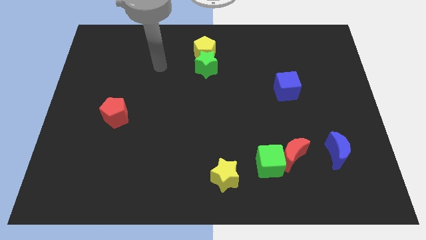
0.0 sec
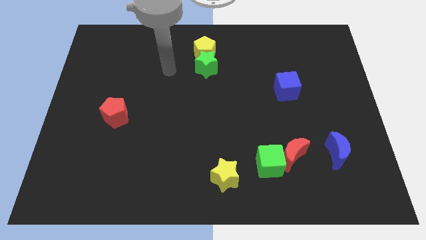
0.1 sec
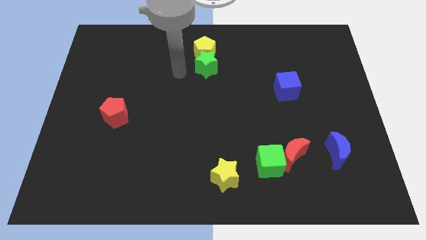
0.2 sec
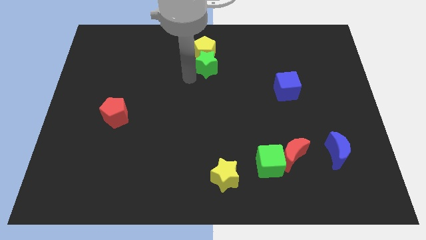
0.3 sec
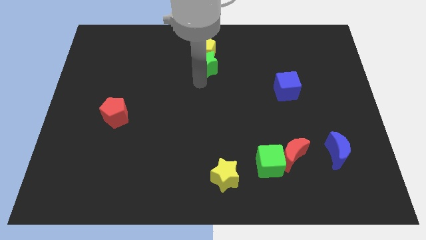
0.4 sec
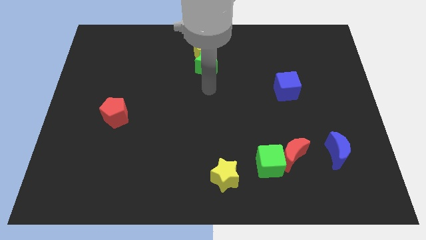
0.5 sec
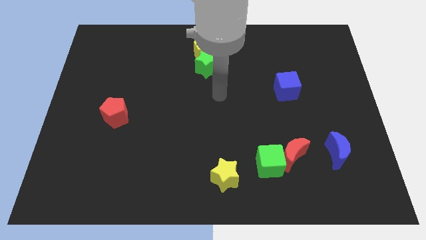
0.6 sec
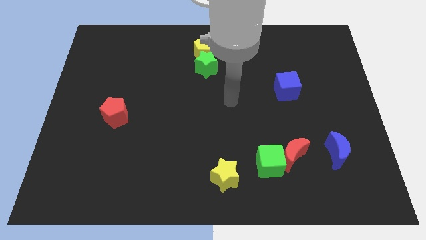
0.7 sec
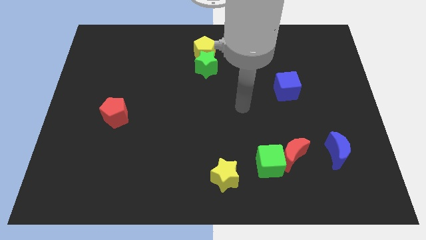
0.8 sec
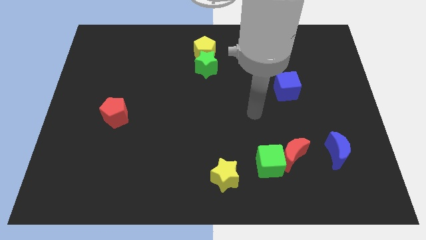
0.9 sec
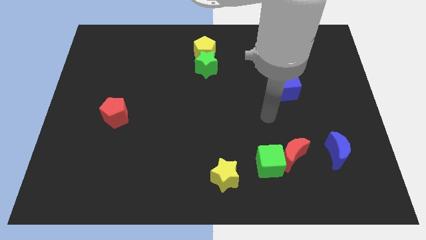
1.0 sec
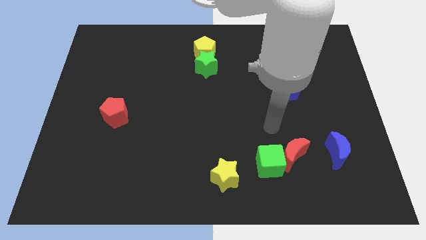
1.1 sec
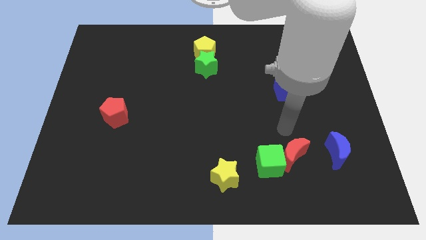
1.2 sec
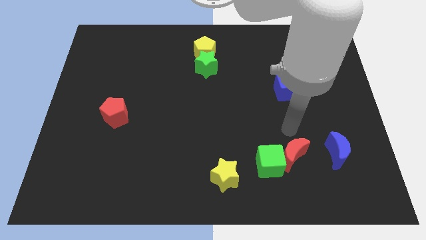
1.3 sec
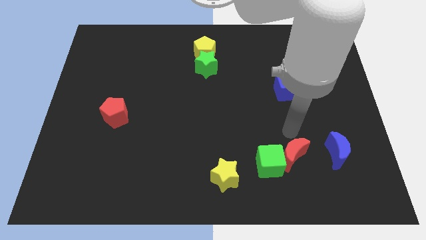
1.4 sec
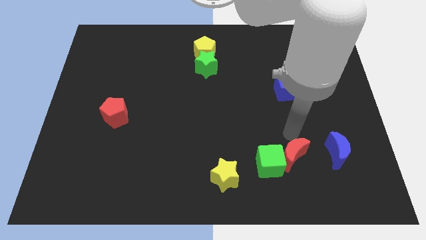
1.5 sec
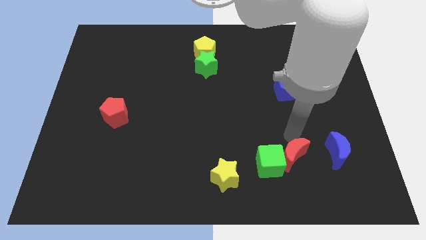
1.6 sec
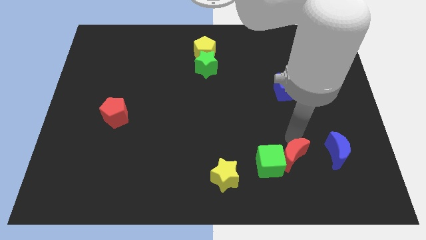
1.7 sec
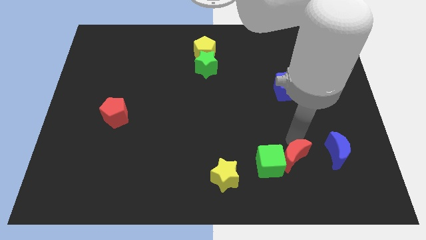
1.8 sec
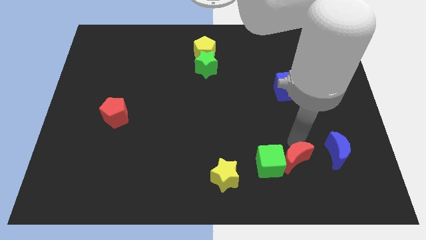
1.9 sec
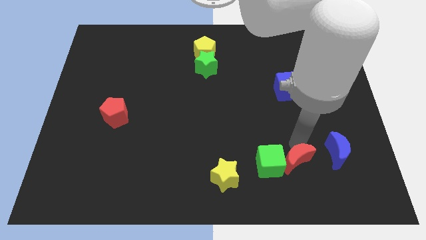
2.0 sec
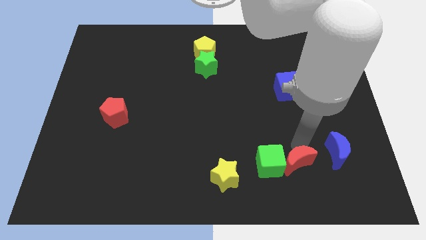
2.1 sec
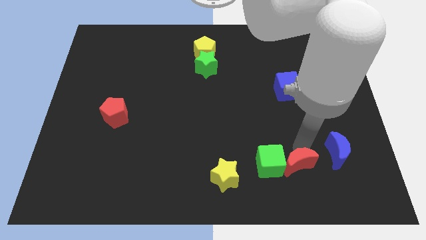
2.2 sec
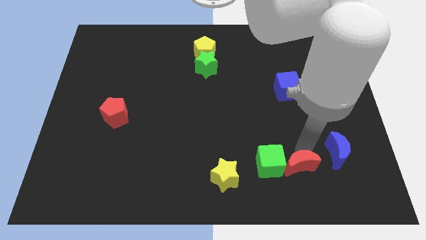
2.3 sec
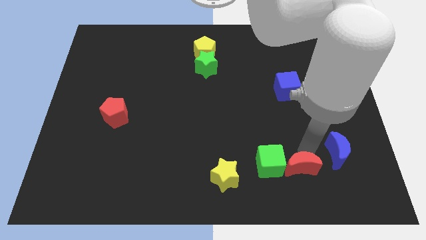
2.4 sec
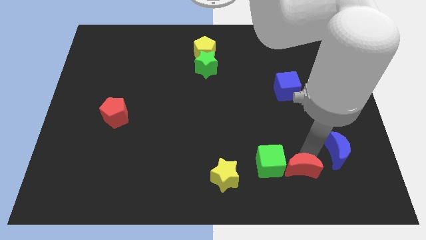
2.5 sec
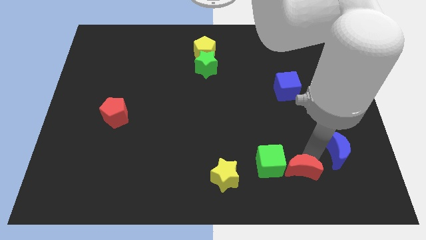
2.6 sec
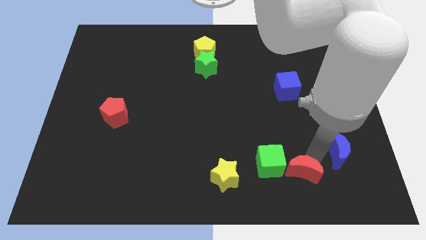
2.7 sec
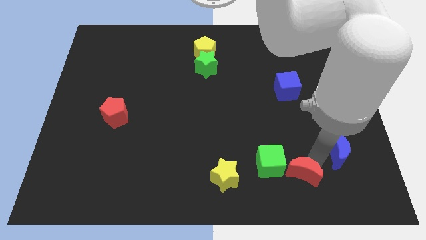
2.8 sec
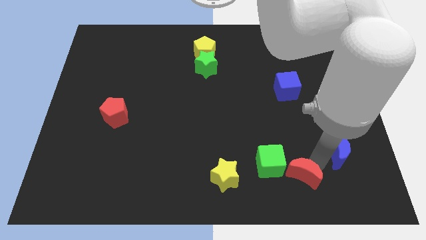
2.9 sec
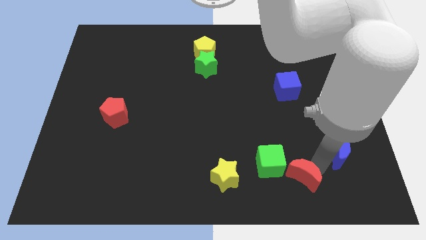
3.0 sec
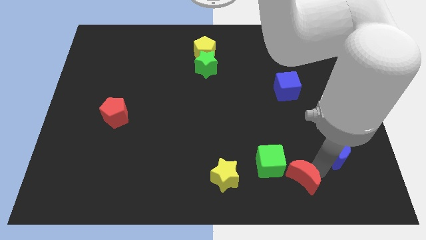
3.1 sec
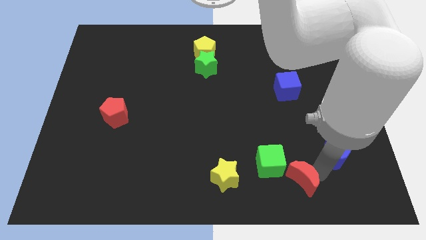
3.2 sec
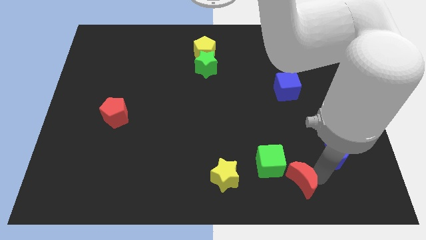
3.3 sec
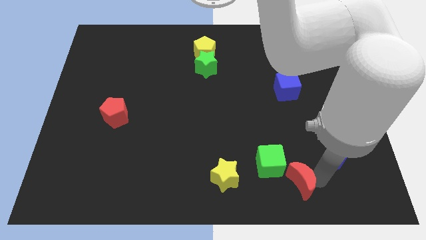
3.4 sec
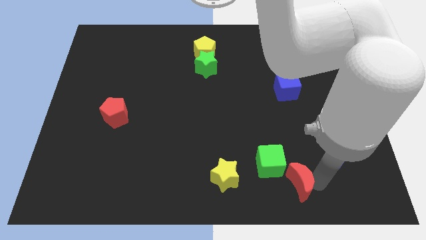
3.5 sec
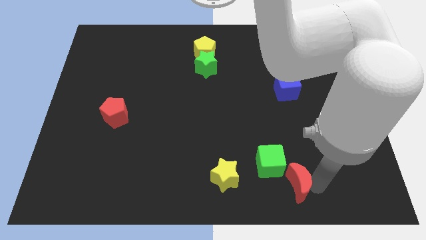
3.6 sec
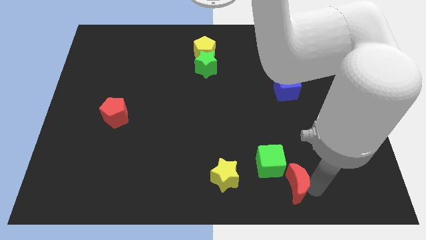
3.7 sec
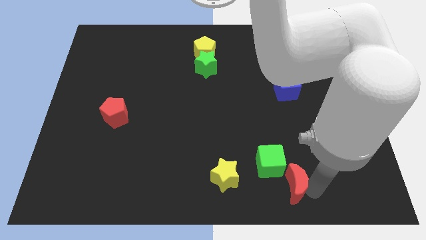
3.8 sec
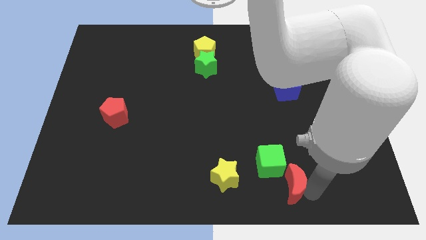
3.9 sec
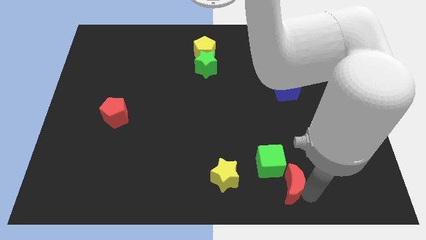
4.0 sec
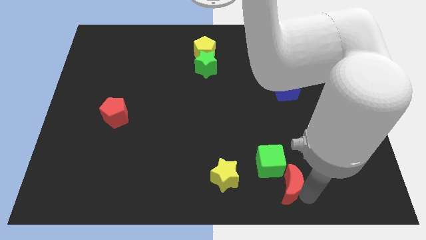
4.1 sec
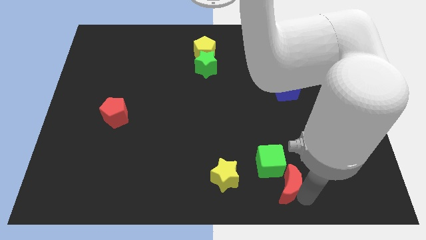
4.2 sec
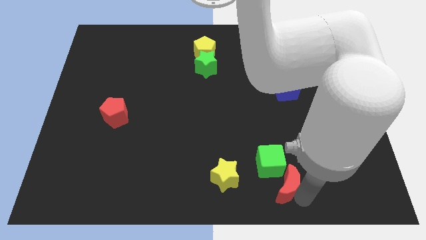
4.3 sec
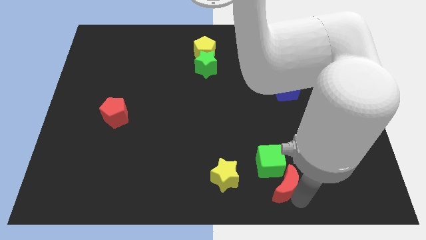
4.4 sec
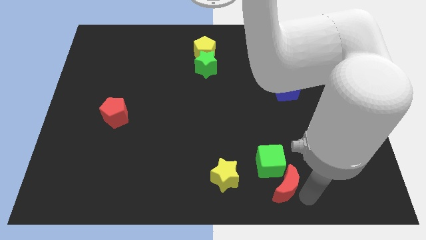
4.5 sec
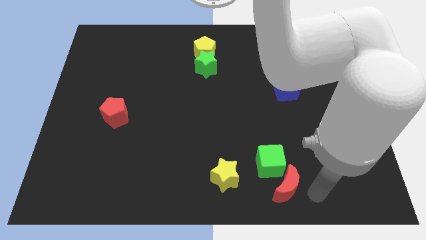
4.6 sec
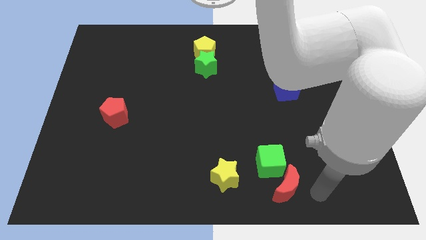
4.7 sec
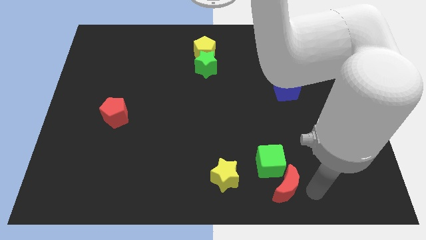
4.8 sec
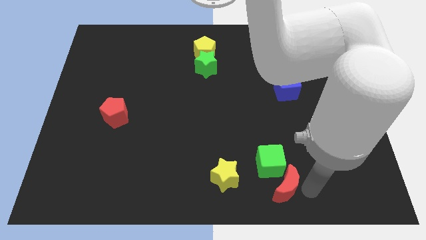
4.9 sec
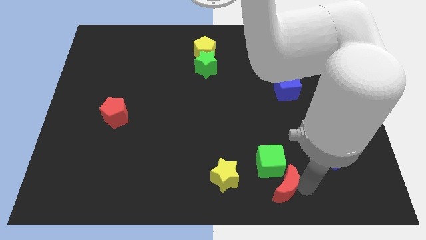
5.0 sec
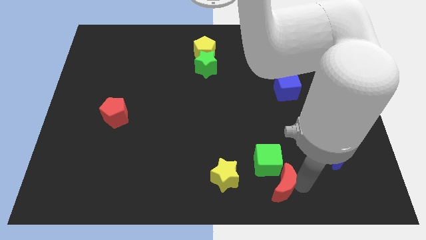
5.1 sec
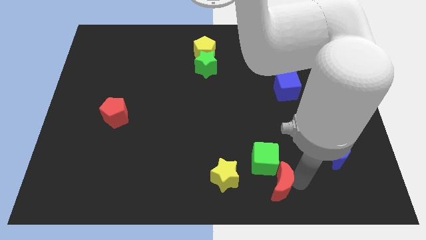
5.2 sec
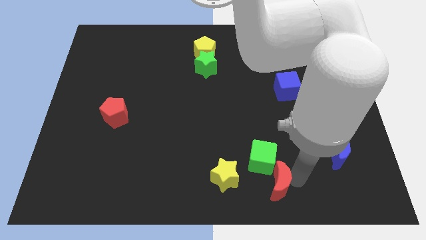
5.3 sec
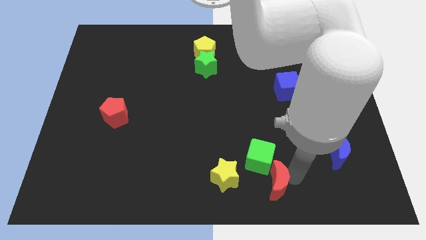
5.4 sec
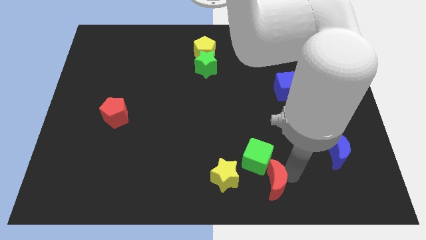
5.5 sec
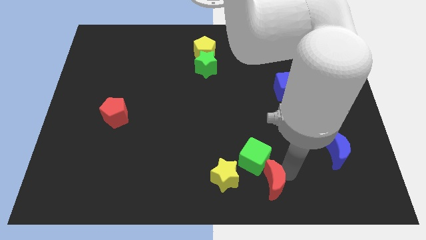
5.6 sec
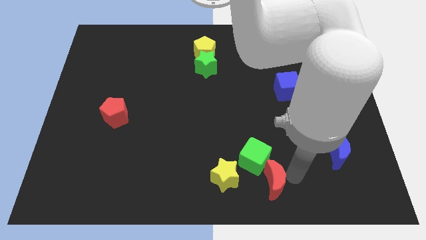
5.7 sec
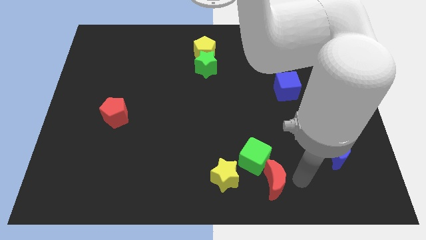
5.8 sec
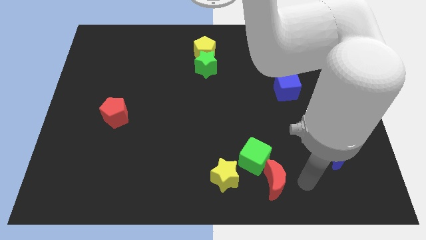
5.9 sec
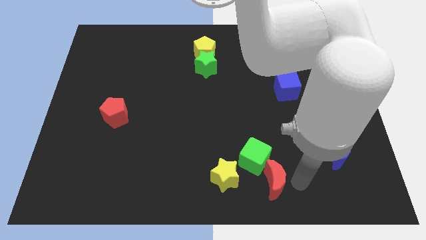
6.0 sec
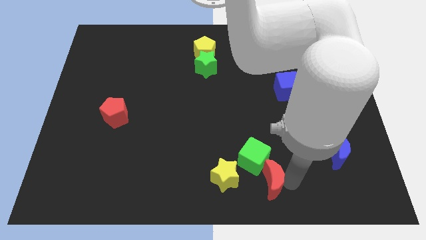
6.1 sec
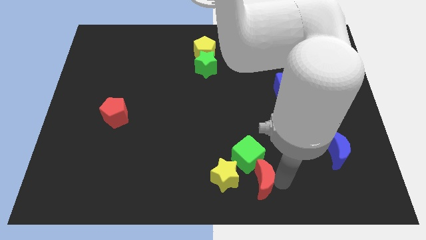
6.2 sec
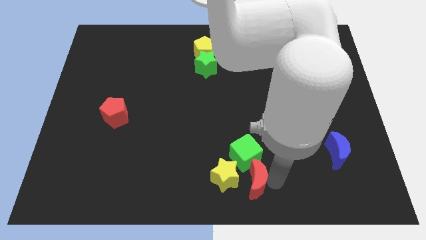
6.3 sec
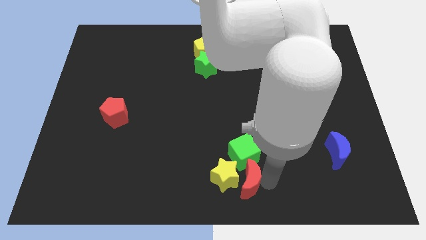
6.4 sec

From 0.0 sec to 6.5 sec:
put the red moon close to the yellow star

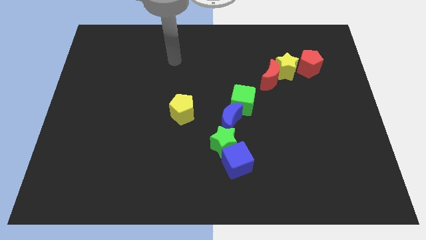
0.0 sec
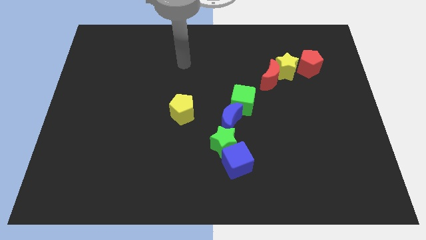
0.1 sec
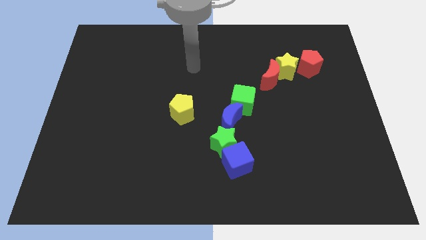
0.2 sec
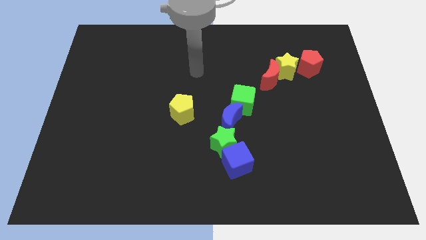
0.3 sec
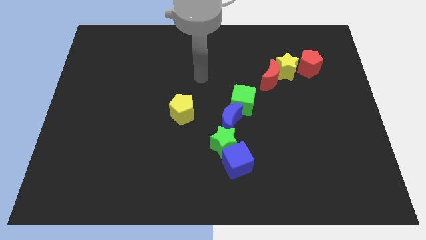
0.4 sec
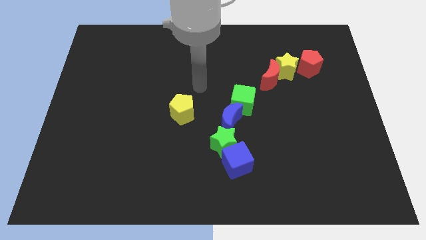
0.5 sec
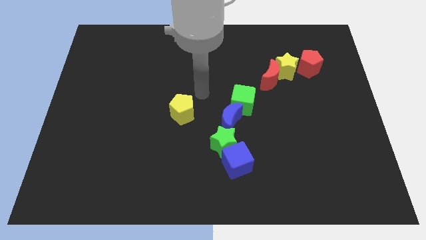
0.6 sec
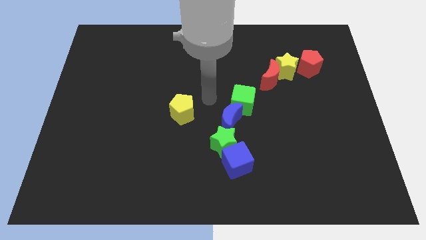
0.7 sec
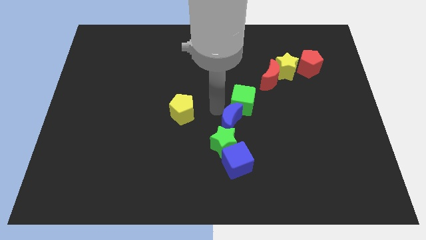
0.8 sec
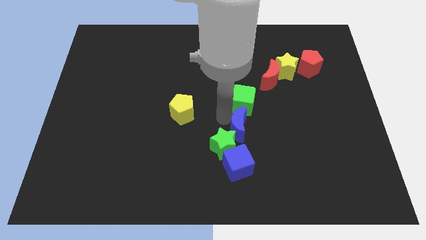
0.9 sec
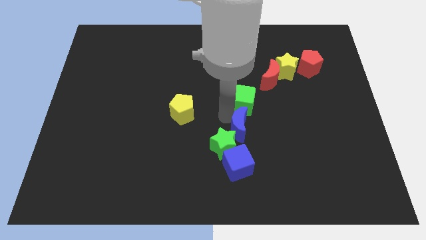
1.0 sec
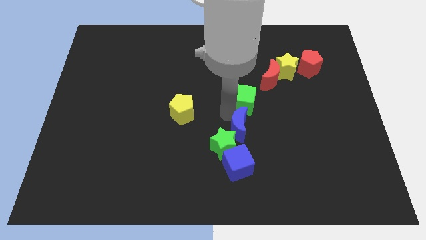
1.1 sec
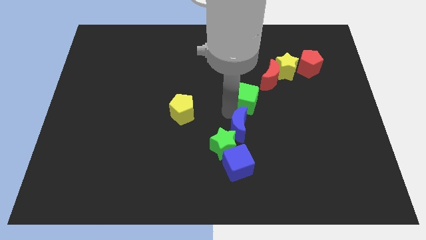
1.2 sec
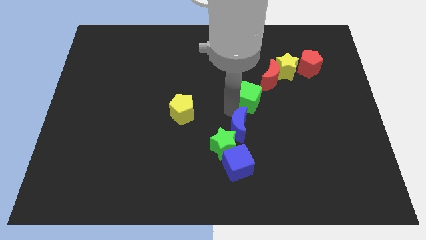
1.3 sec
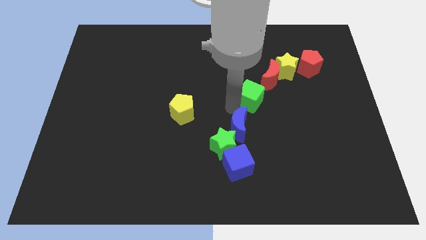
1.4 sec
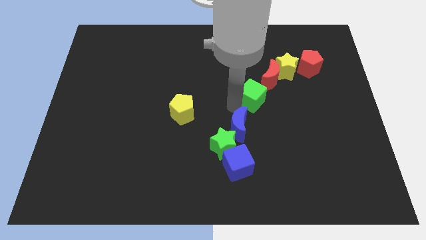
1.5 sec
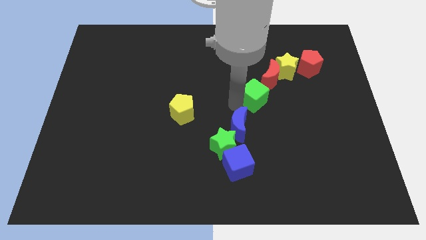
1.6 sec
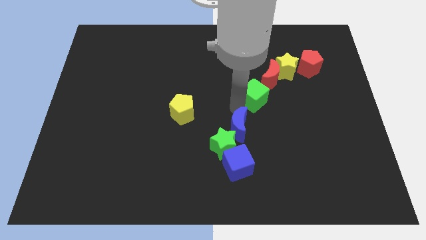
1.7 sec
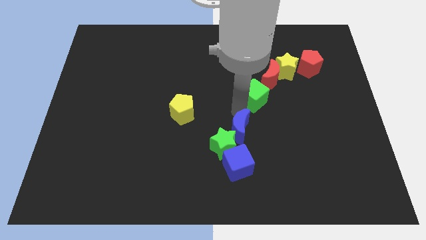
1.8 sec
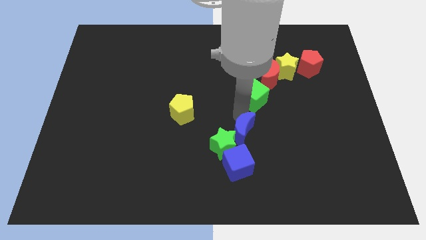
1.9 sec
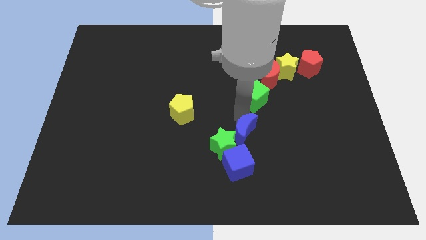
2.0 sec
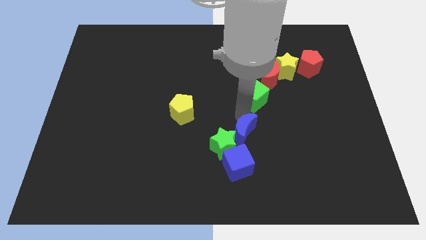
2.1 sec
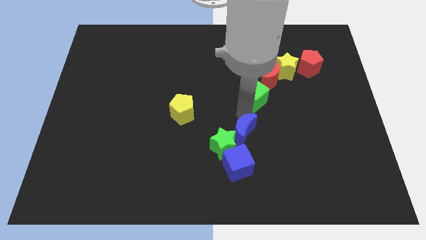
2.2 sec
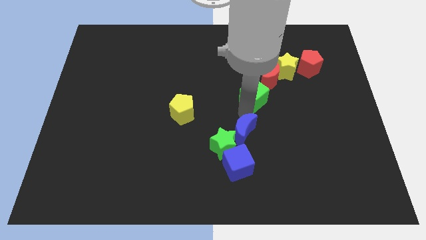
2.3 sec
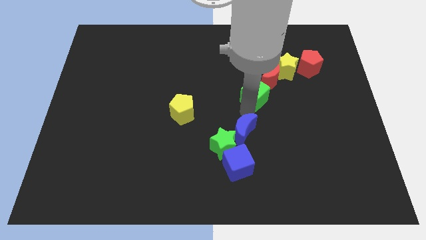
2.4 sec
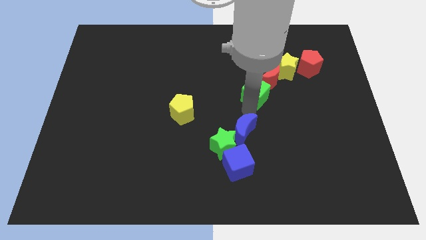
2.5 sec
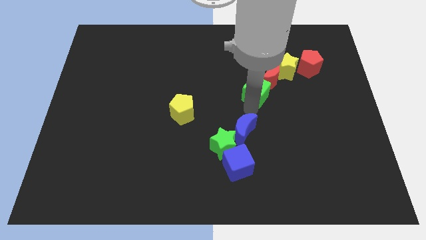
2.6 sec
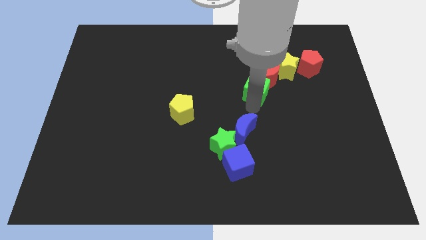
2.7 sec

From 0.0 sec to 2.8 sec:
slide the green cube next to the red moon
